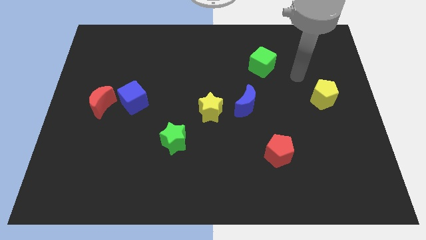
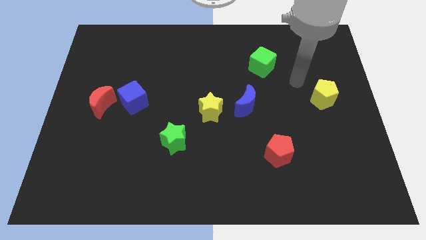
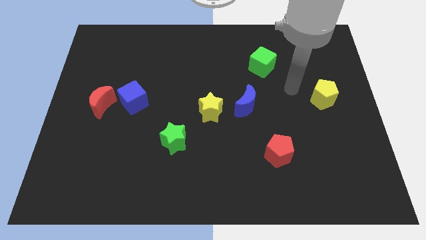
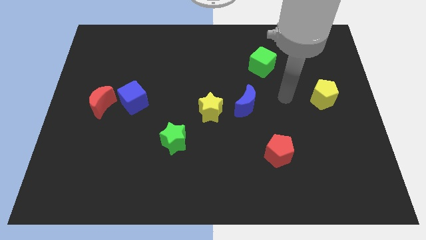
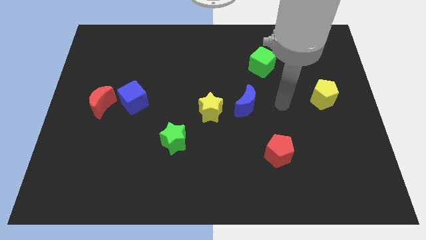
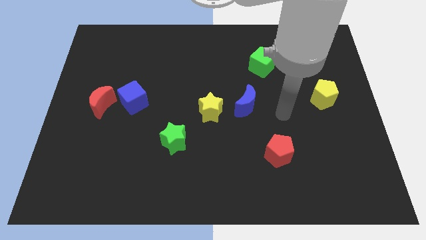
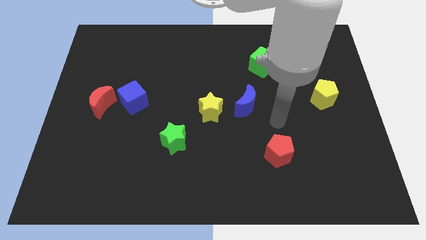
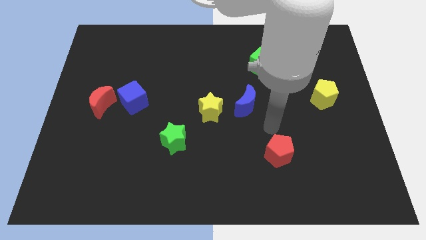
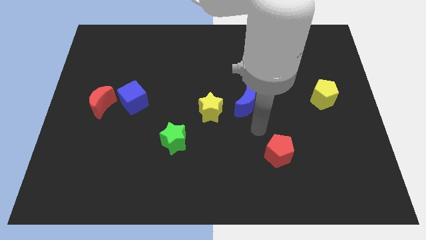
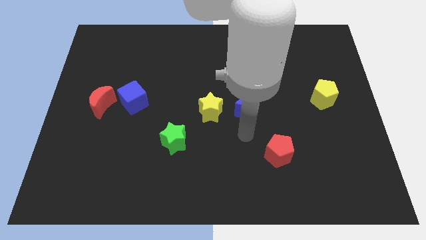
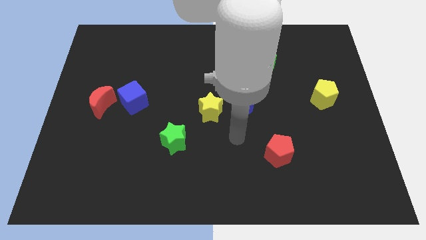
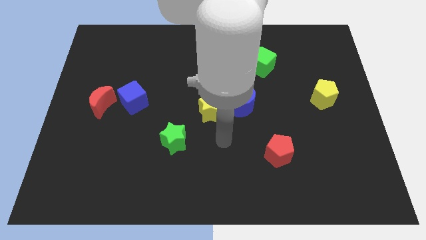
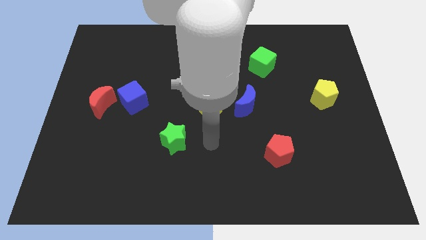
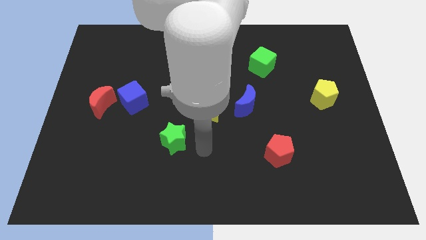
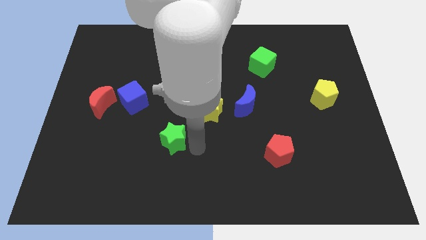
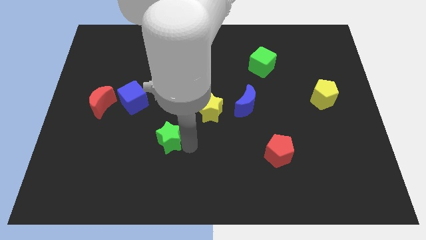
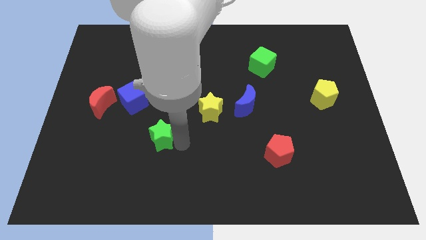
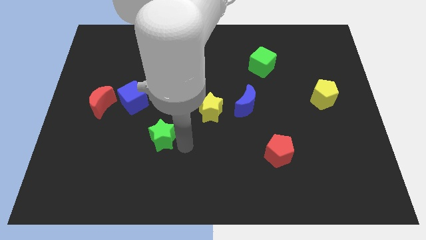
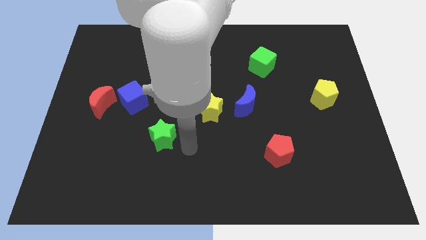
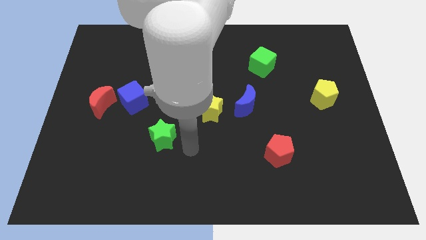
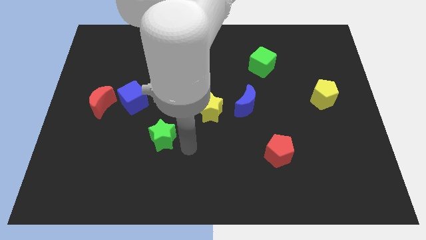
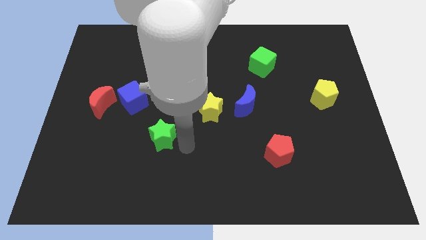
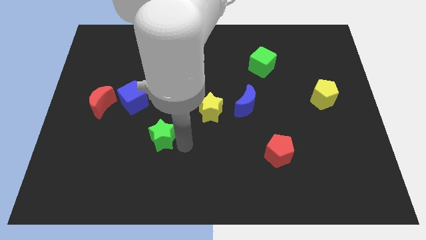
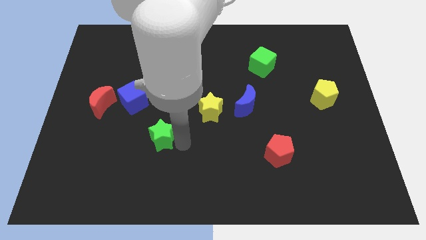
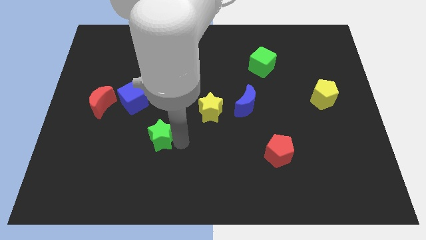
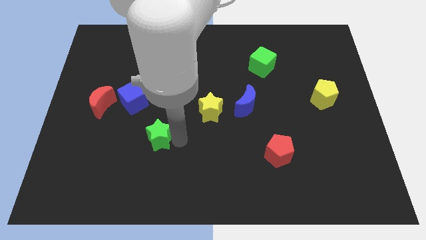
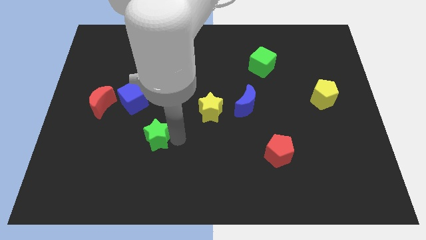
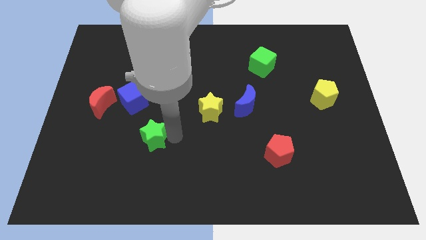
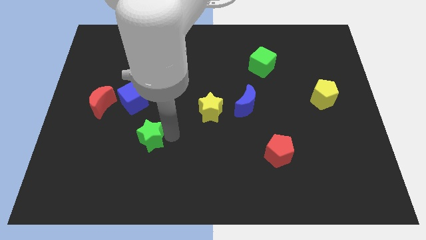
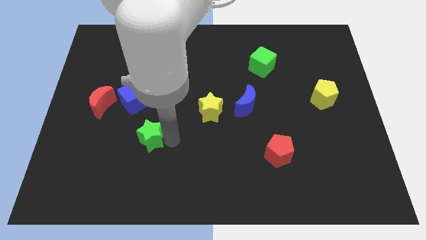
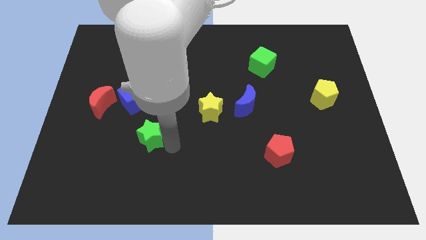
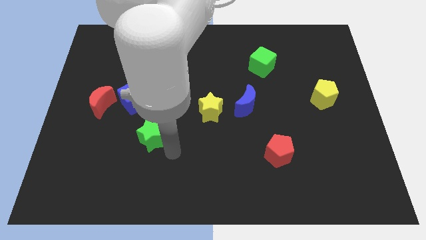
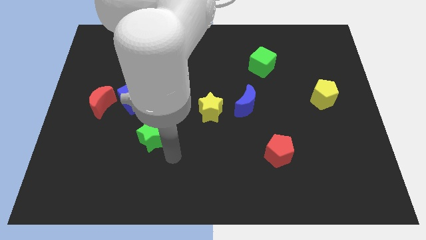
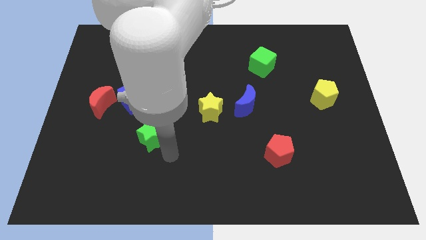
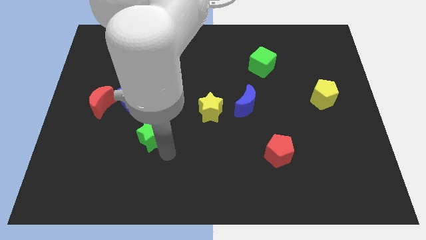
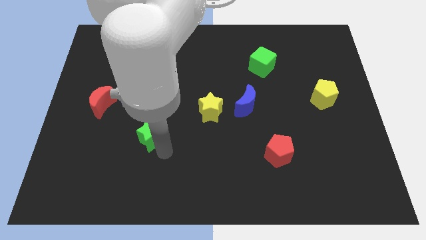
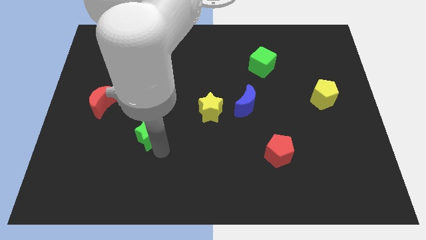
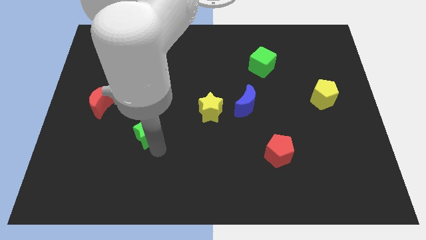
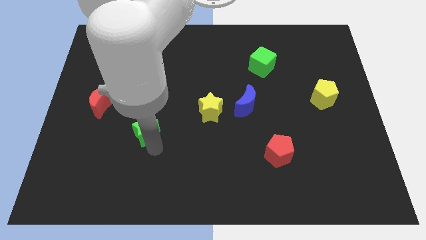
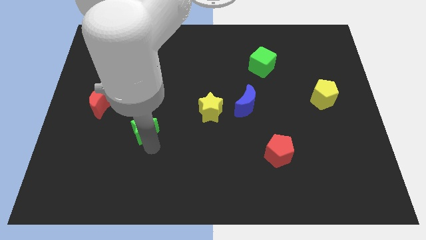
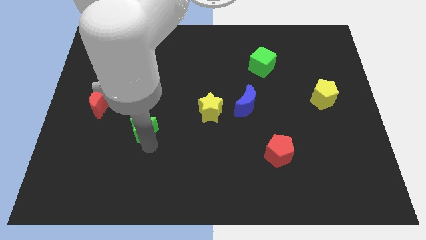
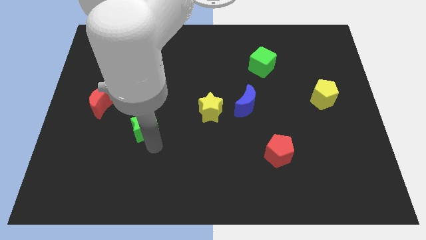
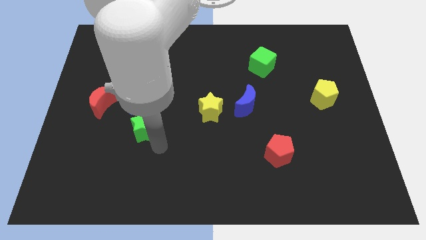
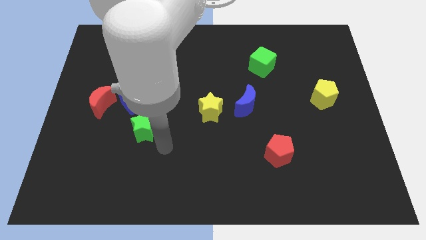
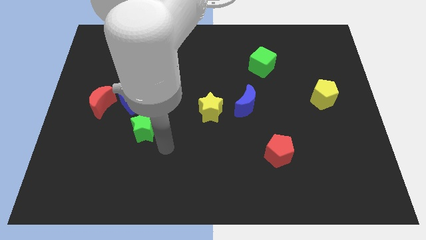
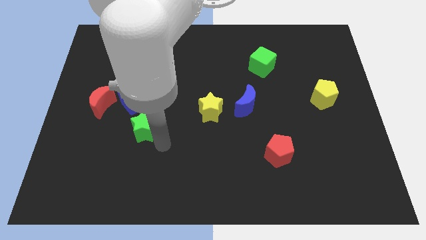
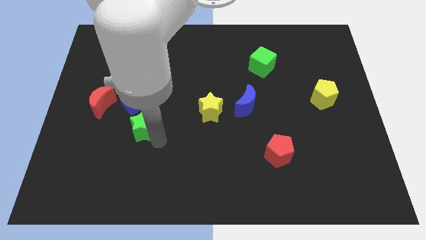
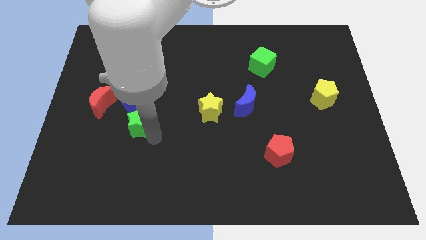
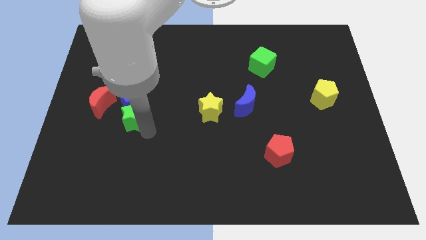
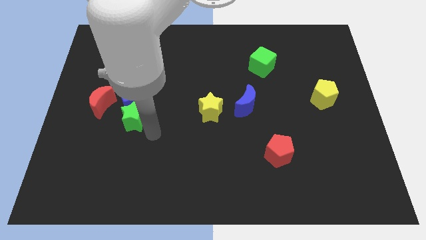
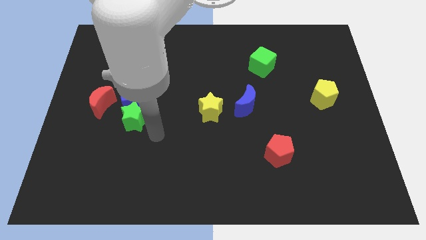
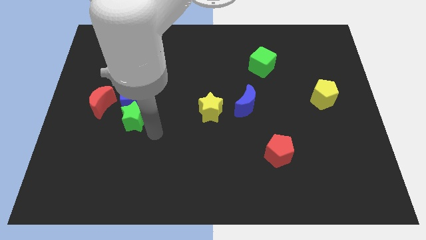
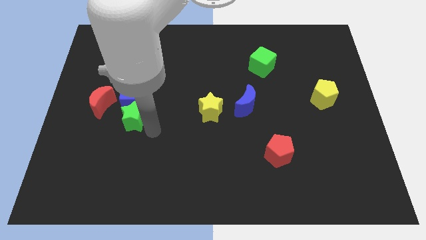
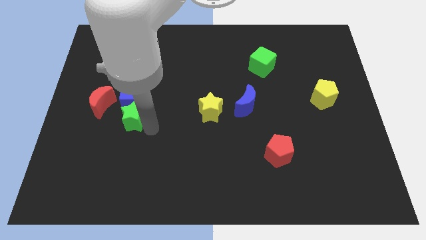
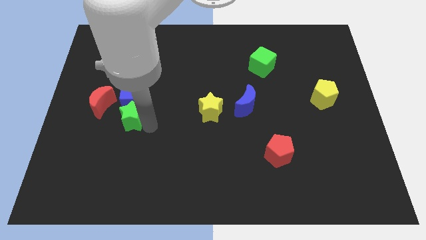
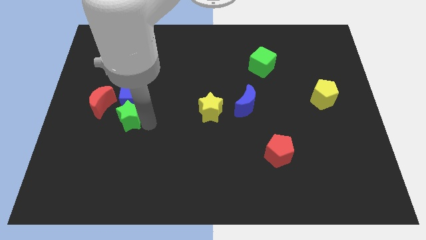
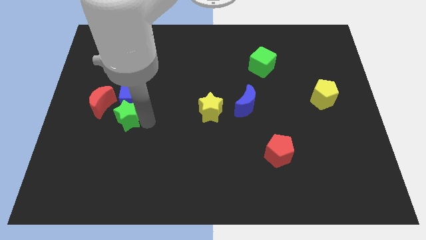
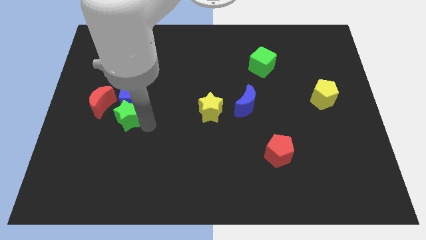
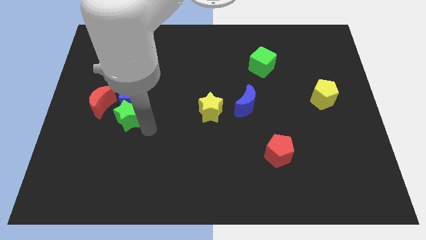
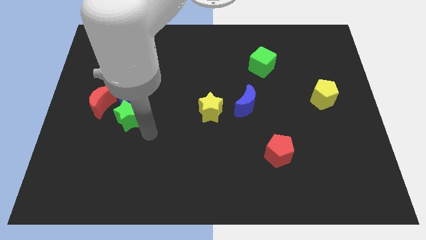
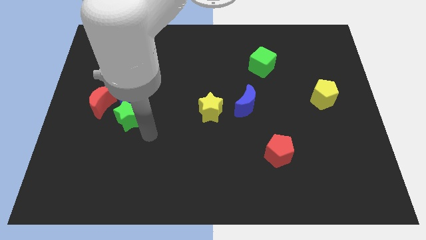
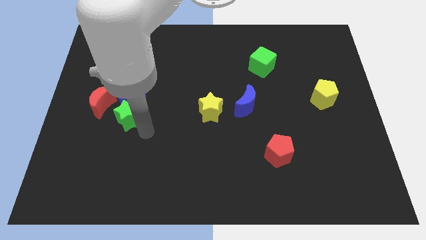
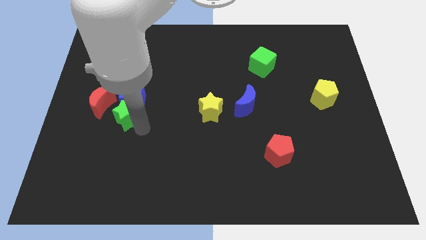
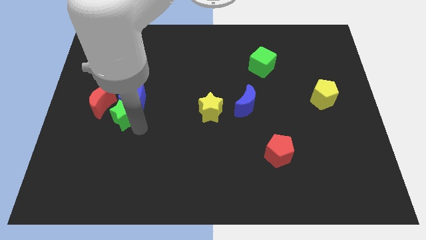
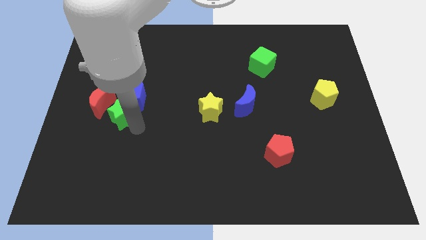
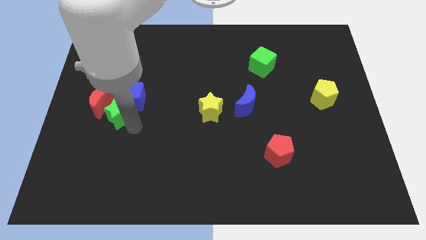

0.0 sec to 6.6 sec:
put the green star to the red moon
